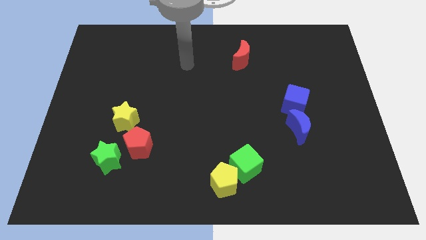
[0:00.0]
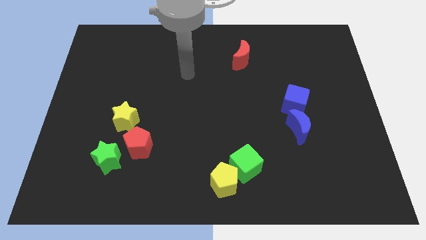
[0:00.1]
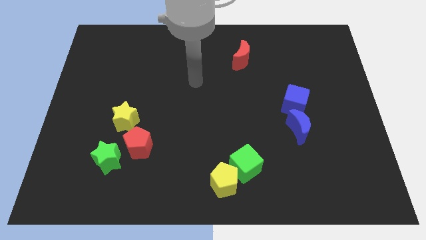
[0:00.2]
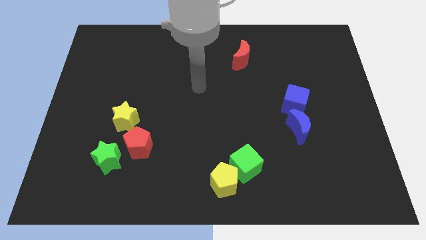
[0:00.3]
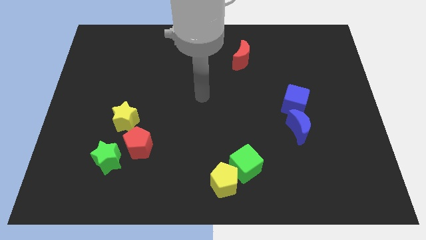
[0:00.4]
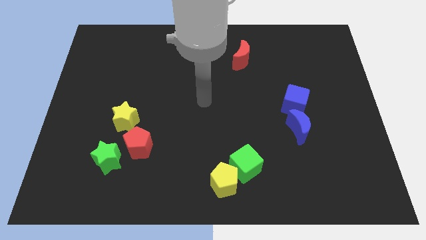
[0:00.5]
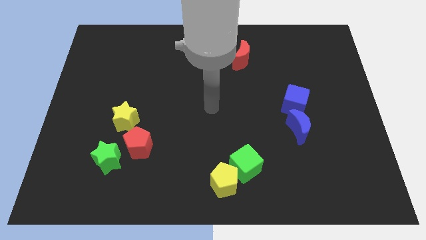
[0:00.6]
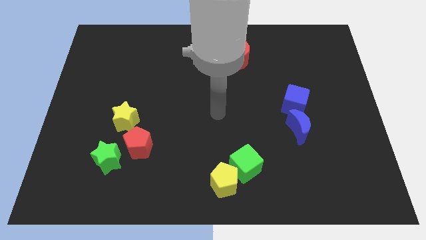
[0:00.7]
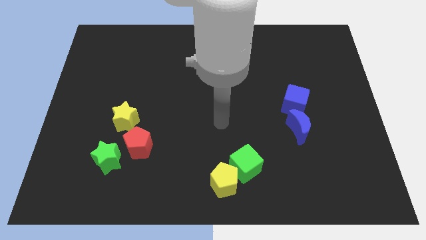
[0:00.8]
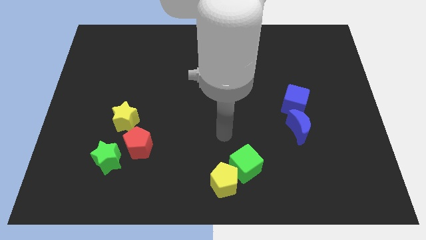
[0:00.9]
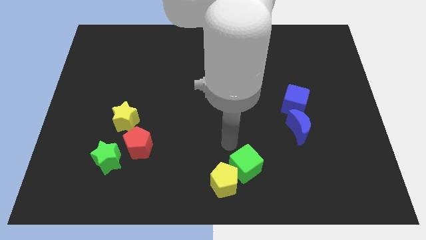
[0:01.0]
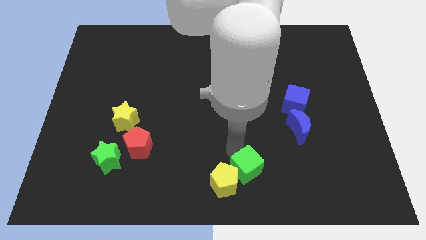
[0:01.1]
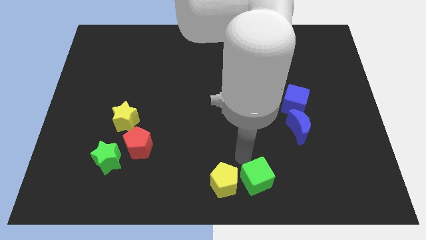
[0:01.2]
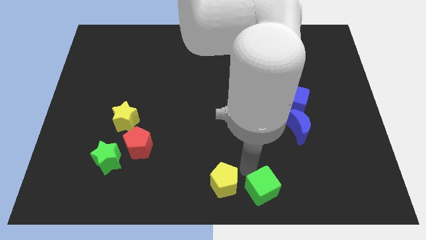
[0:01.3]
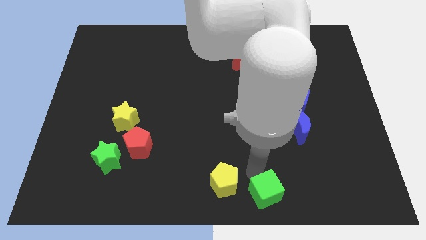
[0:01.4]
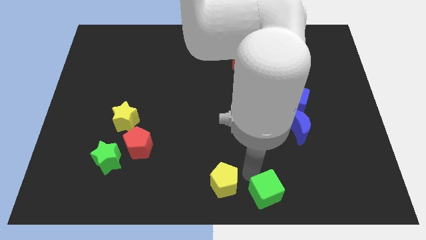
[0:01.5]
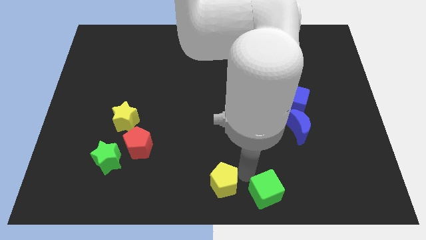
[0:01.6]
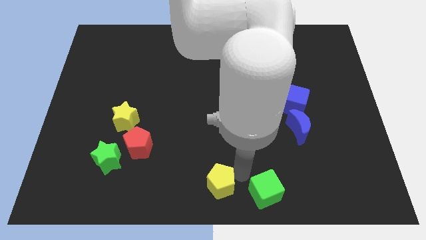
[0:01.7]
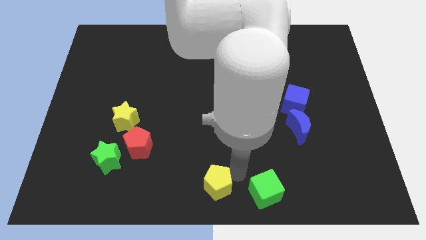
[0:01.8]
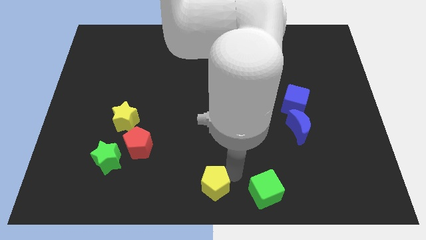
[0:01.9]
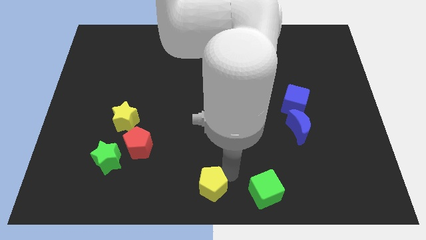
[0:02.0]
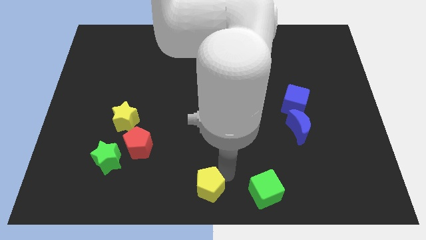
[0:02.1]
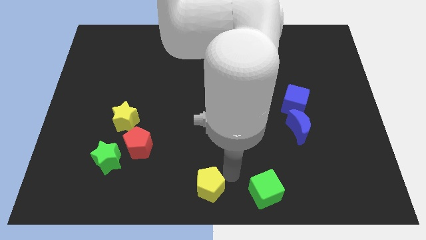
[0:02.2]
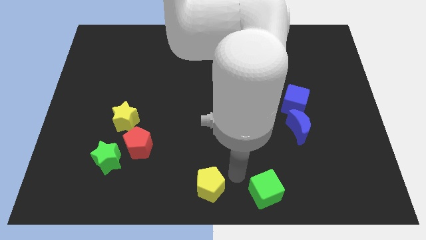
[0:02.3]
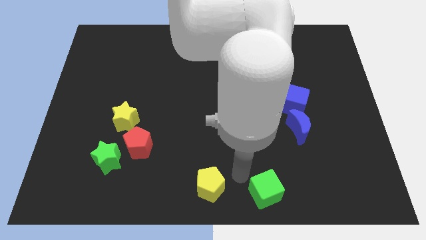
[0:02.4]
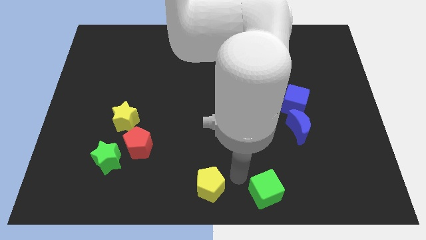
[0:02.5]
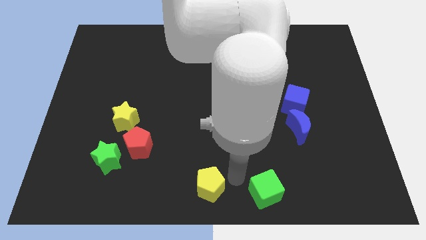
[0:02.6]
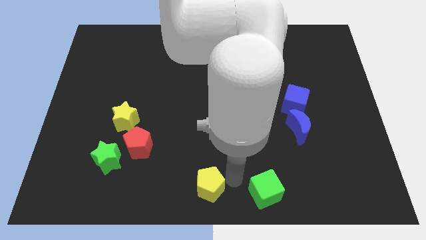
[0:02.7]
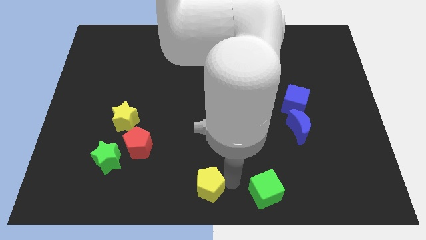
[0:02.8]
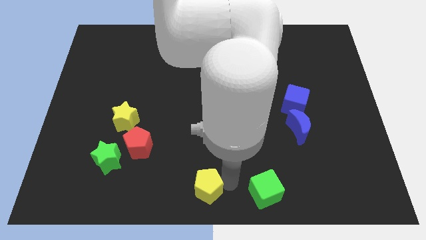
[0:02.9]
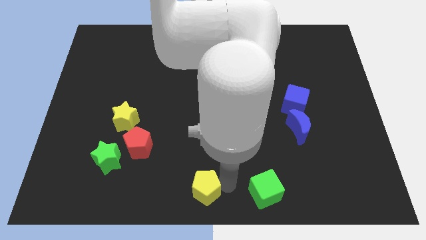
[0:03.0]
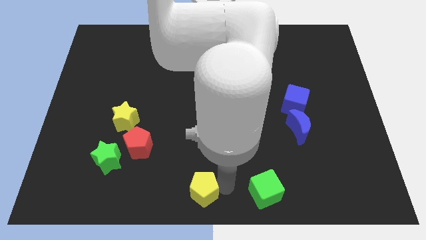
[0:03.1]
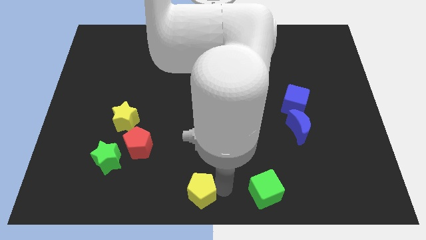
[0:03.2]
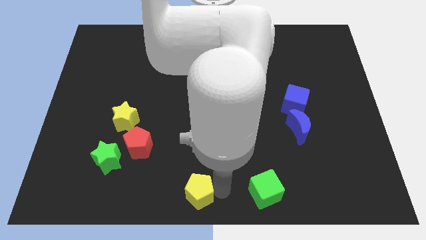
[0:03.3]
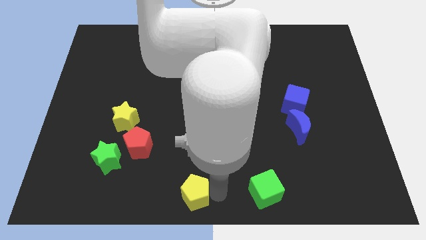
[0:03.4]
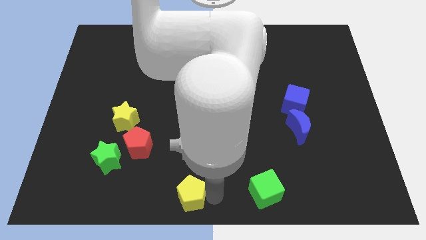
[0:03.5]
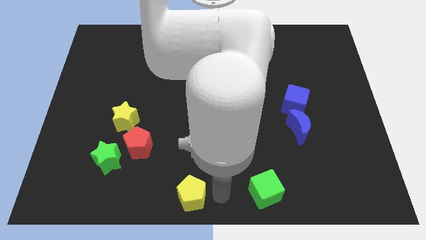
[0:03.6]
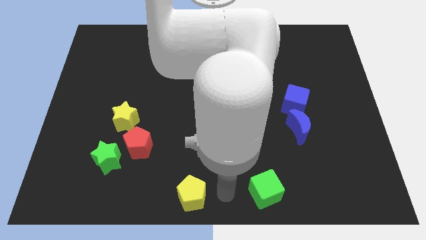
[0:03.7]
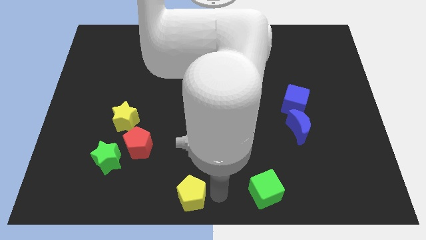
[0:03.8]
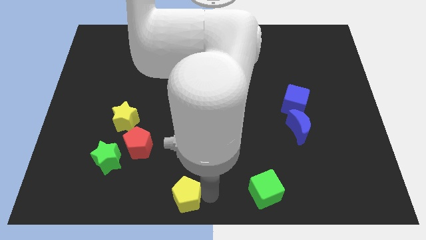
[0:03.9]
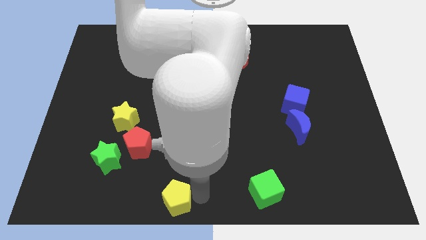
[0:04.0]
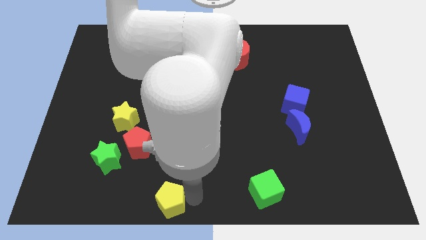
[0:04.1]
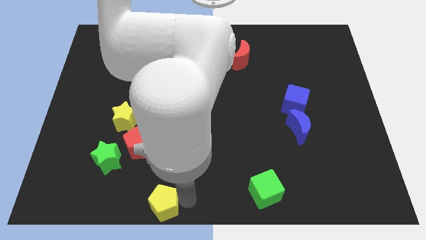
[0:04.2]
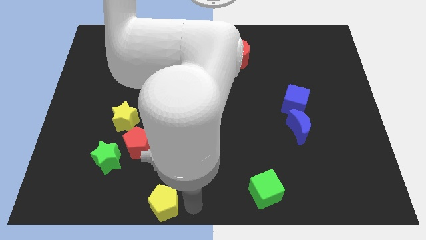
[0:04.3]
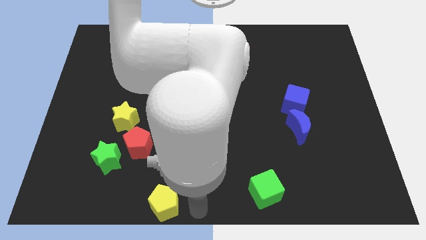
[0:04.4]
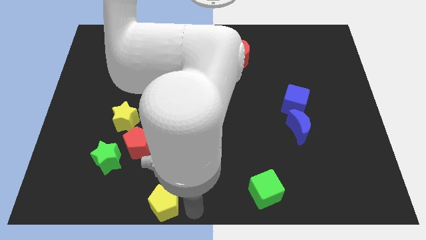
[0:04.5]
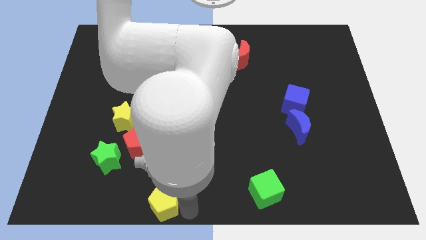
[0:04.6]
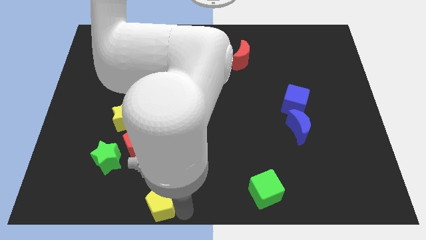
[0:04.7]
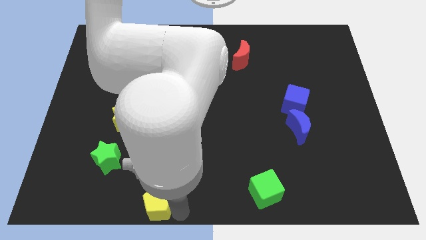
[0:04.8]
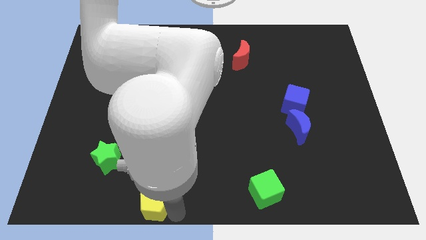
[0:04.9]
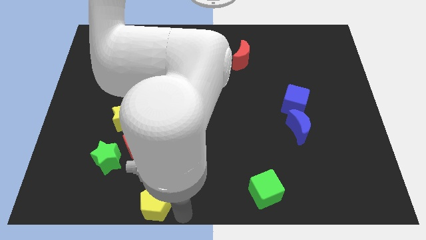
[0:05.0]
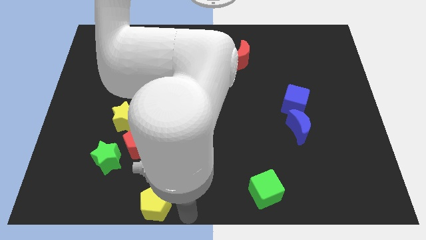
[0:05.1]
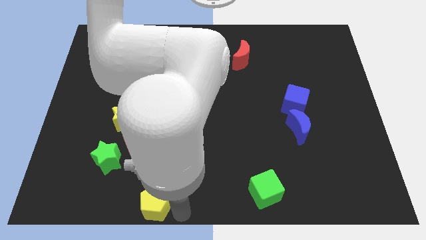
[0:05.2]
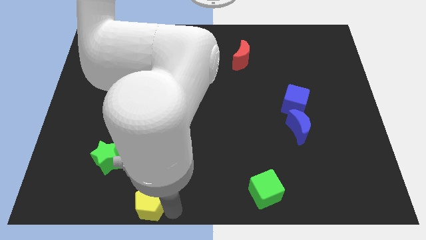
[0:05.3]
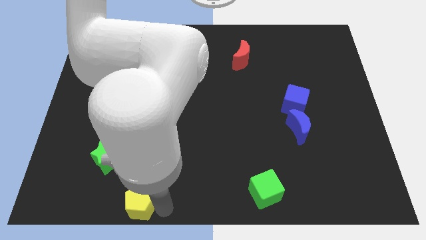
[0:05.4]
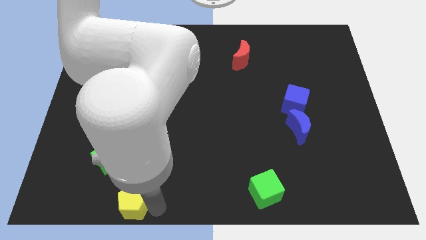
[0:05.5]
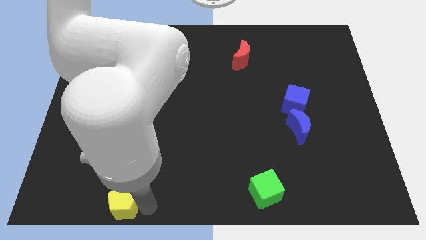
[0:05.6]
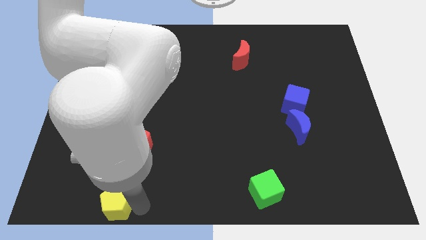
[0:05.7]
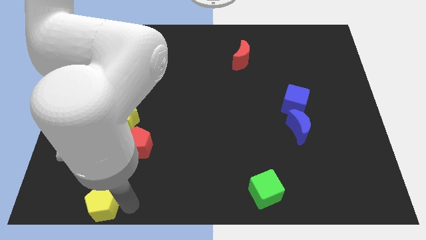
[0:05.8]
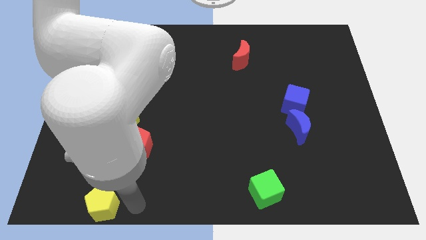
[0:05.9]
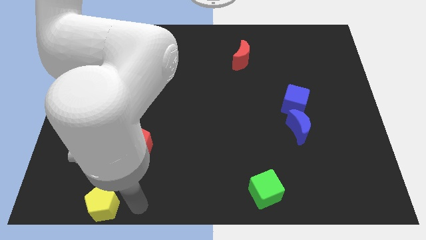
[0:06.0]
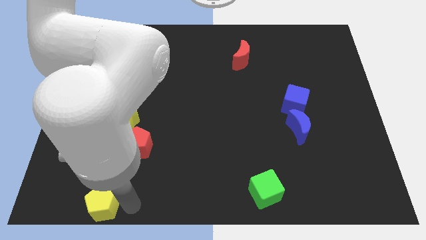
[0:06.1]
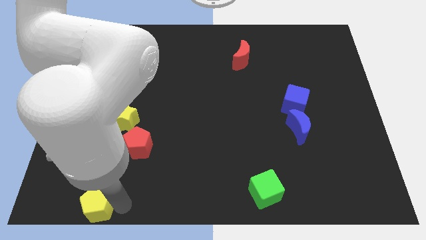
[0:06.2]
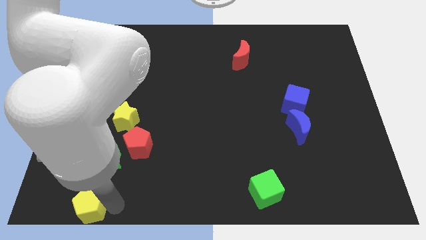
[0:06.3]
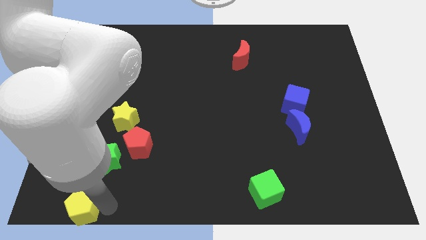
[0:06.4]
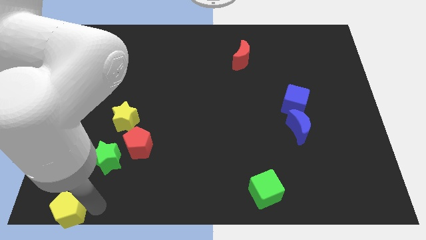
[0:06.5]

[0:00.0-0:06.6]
move the yellow pentagon to the bottom left corner

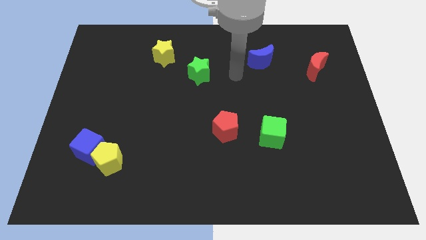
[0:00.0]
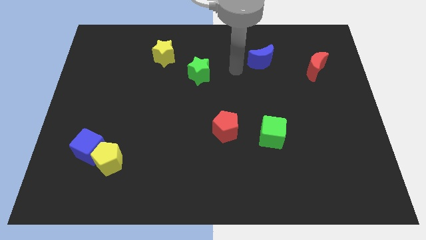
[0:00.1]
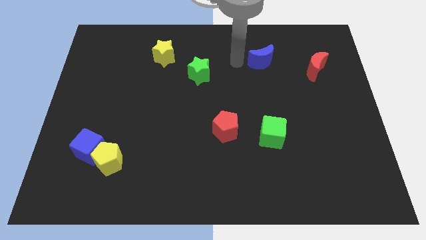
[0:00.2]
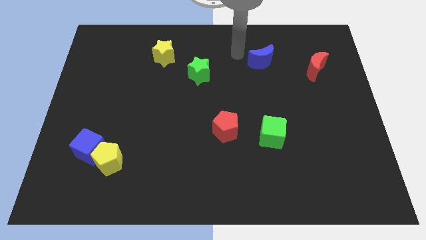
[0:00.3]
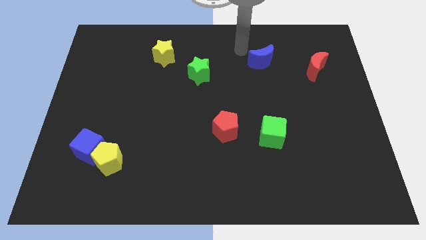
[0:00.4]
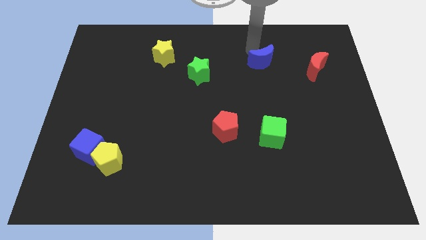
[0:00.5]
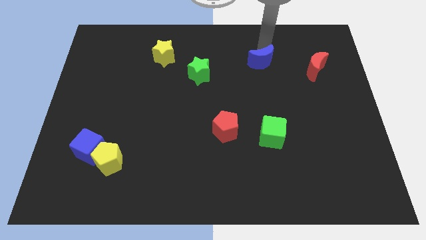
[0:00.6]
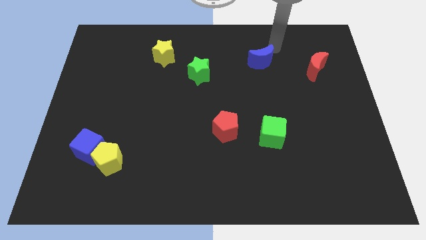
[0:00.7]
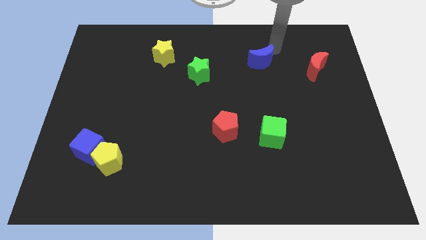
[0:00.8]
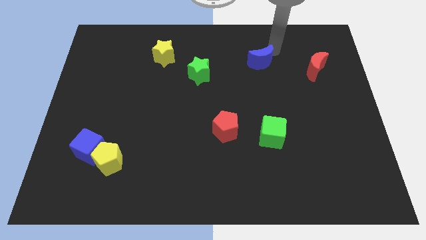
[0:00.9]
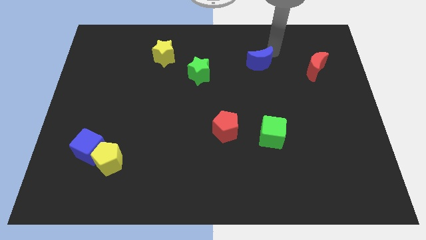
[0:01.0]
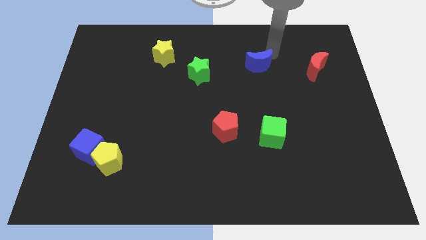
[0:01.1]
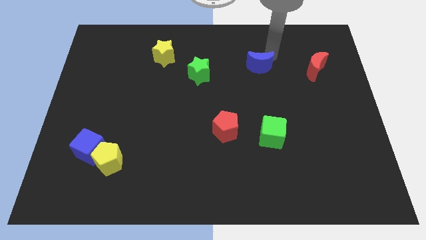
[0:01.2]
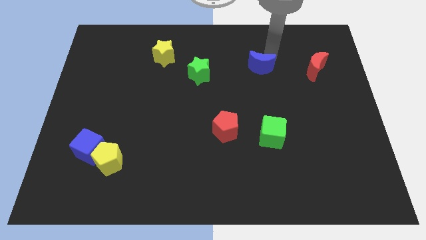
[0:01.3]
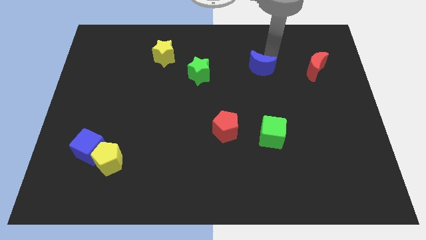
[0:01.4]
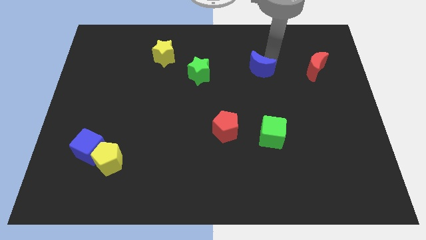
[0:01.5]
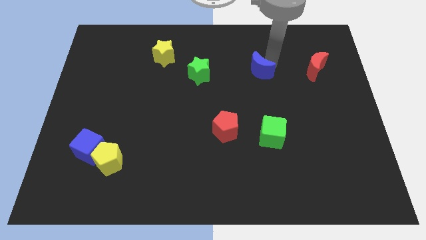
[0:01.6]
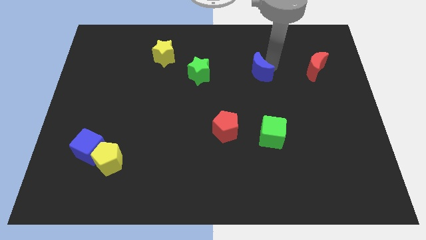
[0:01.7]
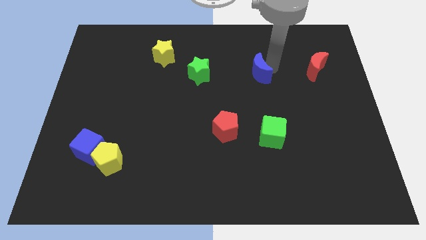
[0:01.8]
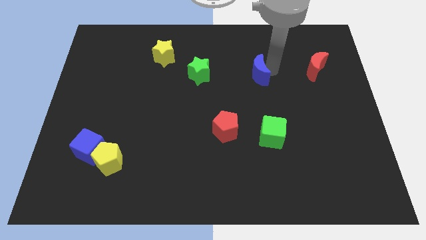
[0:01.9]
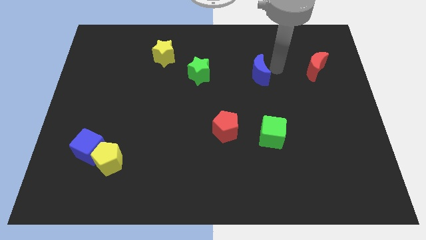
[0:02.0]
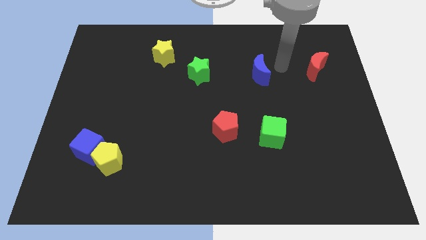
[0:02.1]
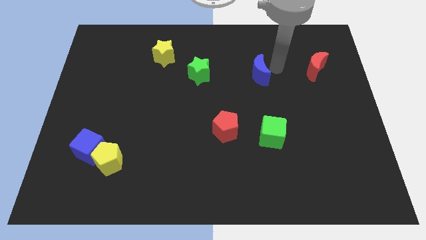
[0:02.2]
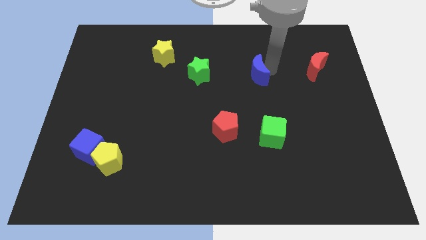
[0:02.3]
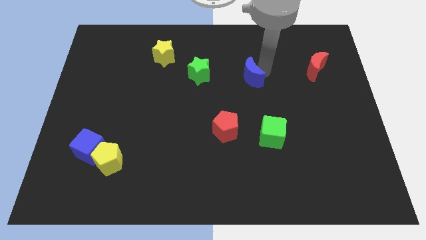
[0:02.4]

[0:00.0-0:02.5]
move the blue moon to the center of the board
